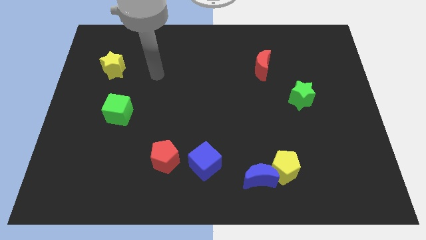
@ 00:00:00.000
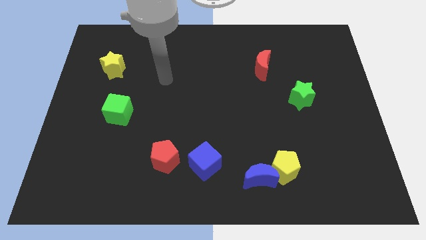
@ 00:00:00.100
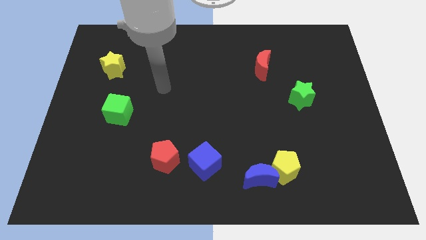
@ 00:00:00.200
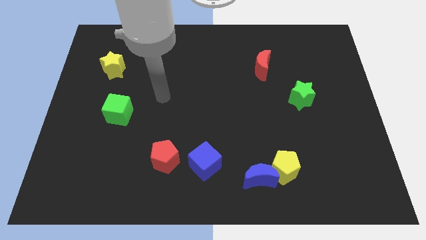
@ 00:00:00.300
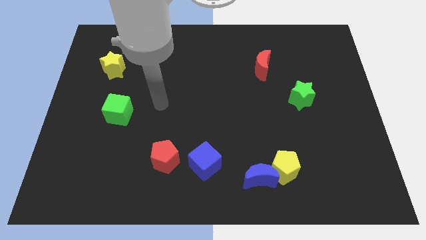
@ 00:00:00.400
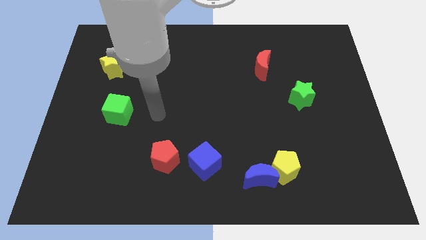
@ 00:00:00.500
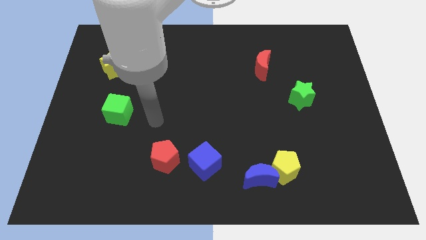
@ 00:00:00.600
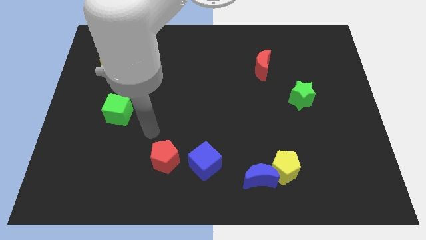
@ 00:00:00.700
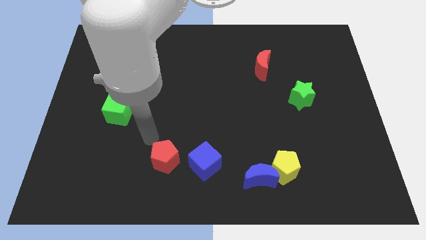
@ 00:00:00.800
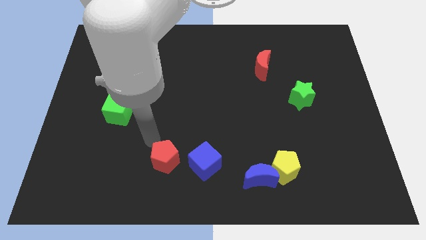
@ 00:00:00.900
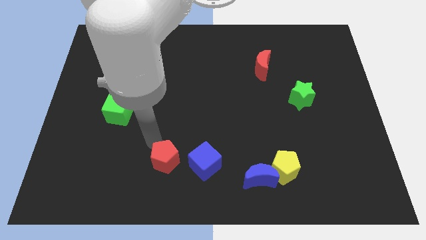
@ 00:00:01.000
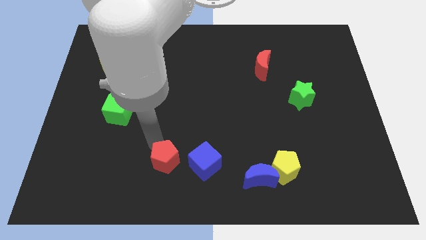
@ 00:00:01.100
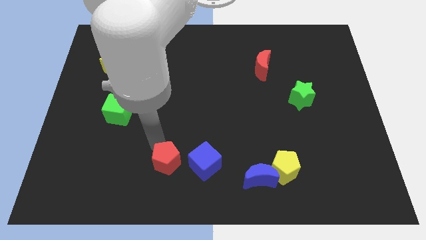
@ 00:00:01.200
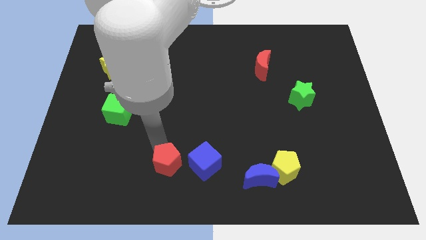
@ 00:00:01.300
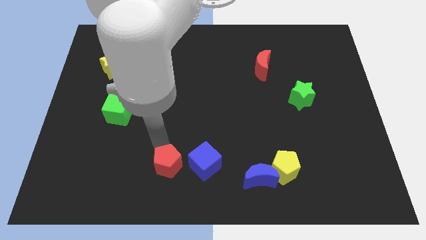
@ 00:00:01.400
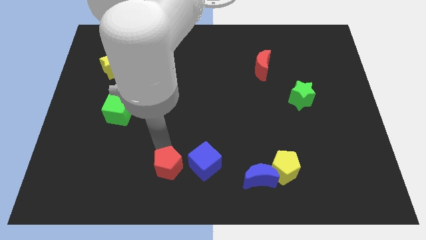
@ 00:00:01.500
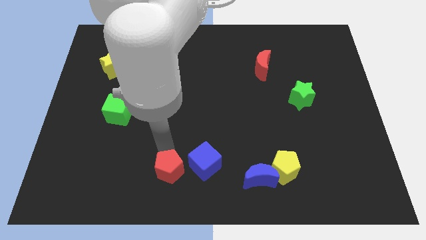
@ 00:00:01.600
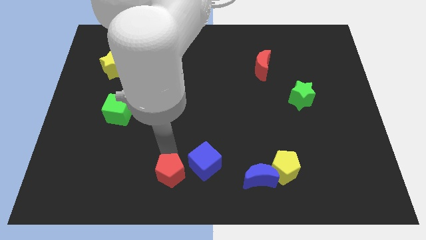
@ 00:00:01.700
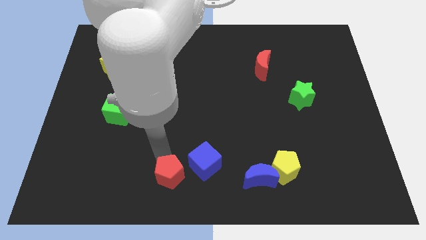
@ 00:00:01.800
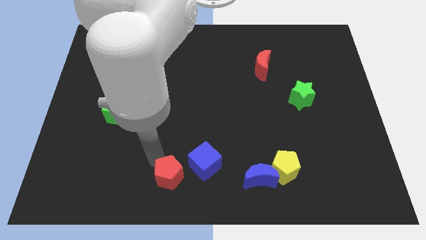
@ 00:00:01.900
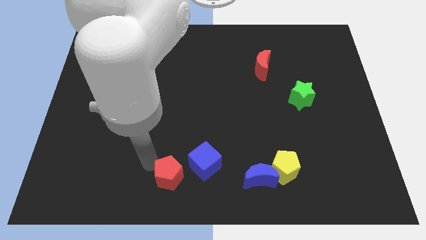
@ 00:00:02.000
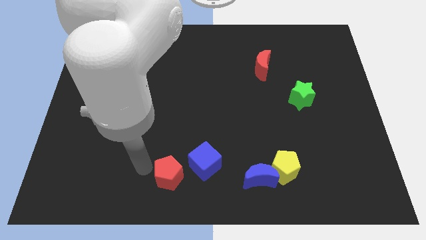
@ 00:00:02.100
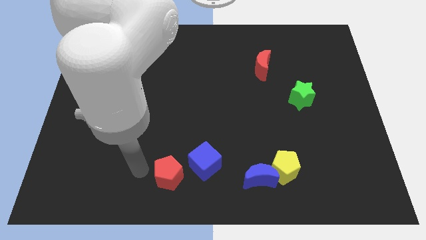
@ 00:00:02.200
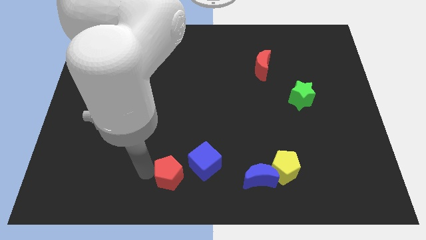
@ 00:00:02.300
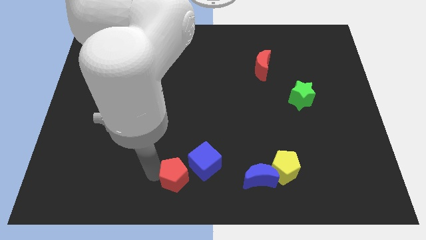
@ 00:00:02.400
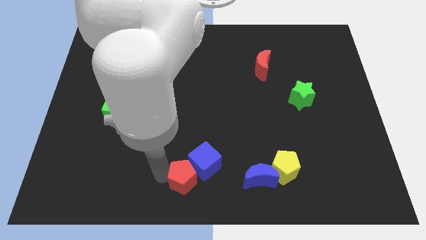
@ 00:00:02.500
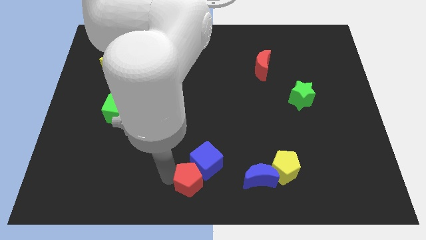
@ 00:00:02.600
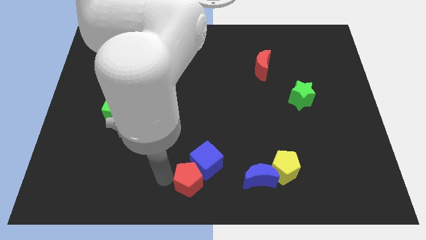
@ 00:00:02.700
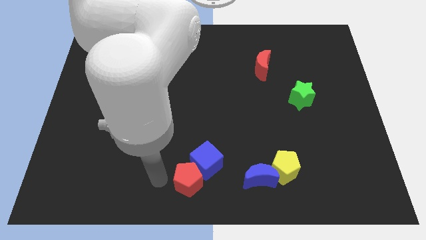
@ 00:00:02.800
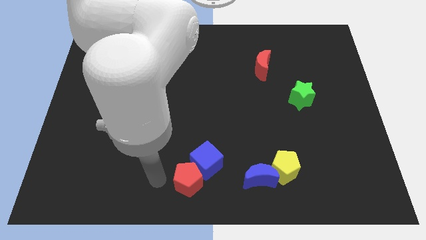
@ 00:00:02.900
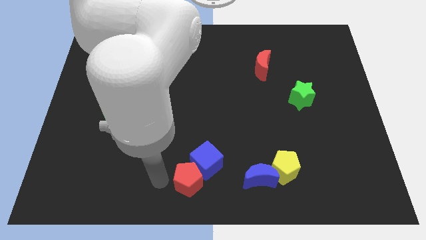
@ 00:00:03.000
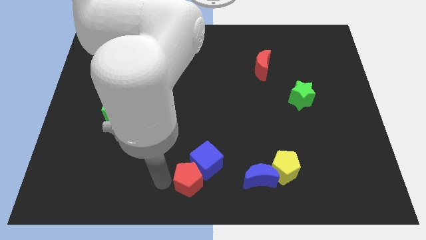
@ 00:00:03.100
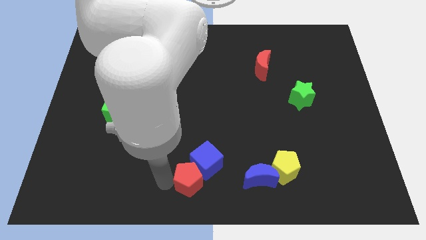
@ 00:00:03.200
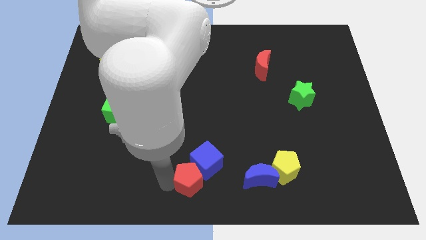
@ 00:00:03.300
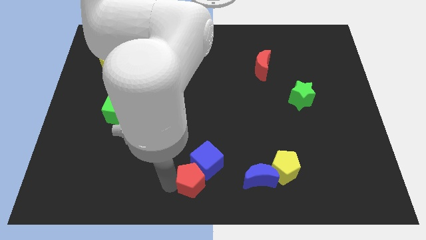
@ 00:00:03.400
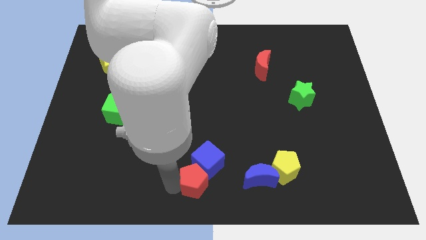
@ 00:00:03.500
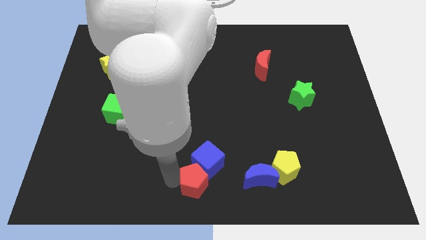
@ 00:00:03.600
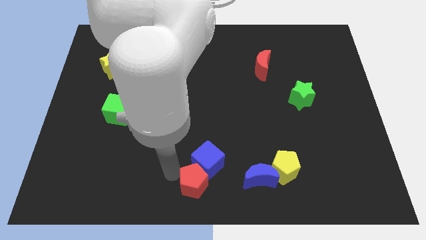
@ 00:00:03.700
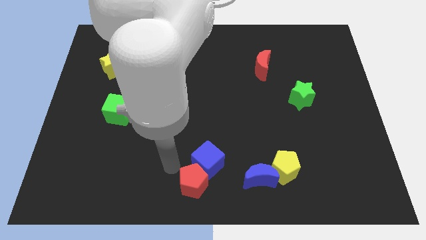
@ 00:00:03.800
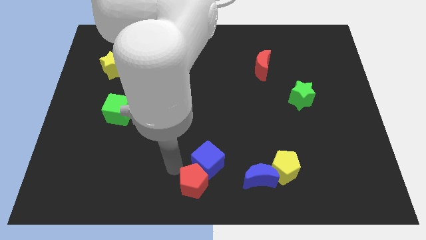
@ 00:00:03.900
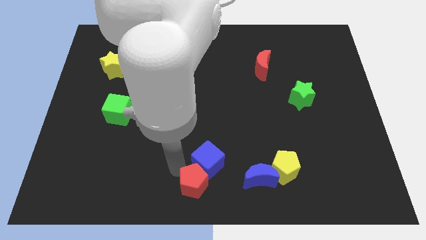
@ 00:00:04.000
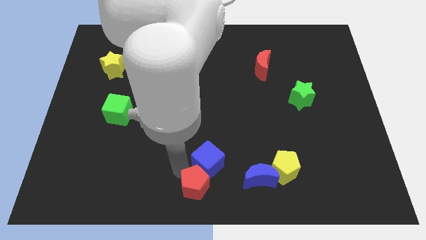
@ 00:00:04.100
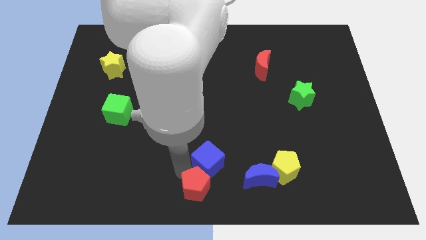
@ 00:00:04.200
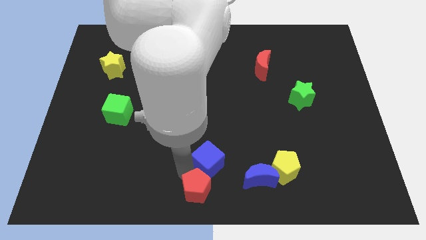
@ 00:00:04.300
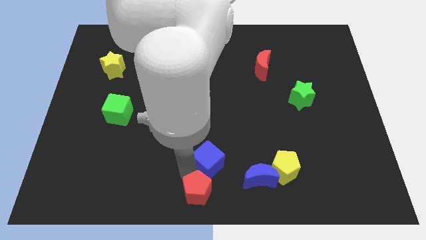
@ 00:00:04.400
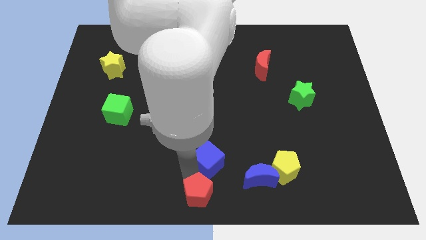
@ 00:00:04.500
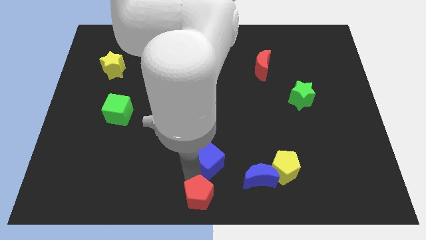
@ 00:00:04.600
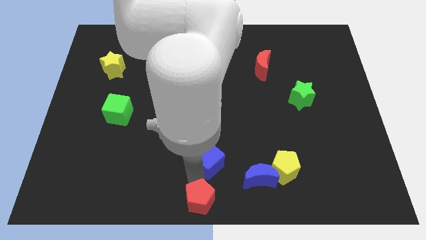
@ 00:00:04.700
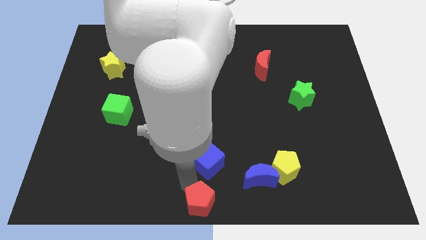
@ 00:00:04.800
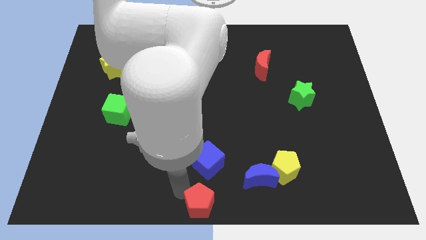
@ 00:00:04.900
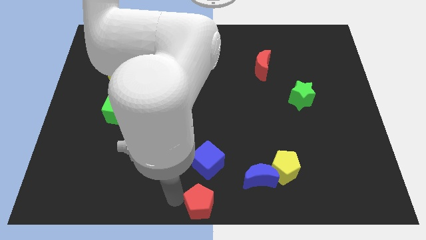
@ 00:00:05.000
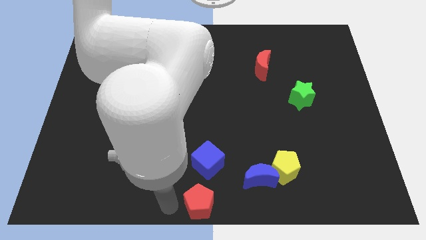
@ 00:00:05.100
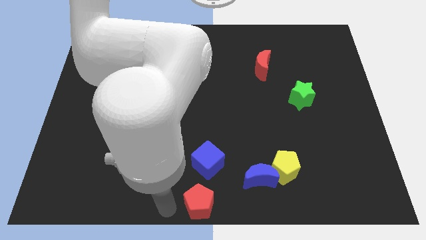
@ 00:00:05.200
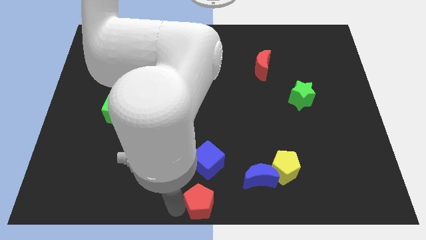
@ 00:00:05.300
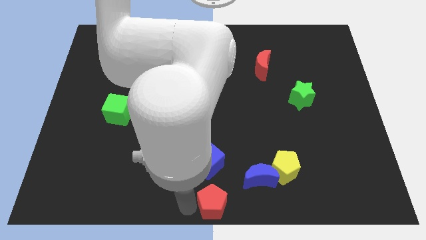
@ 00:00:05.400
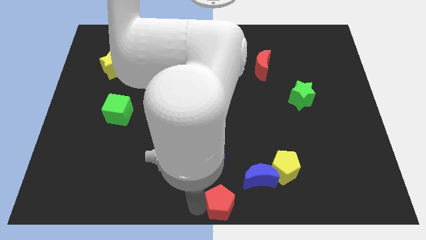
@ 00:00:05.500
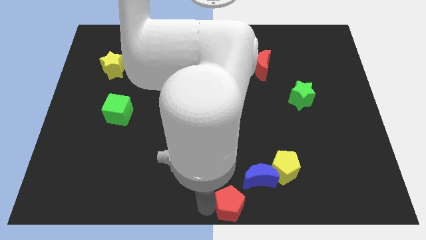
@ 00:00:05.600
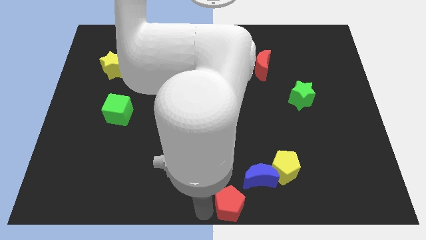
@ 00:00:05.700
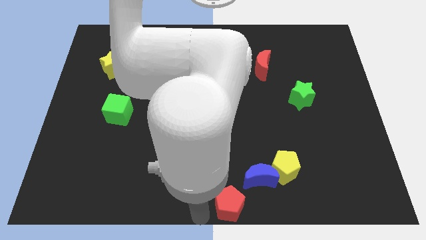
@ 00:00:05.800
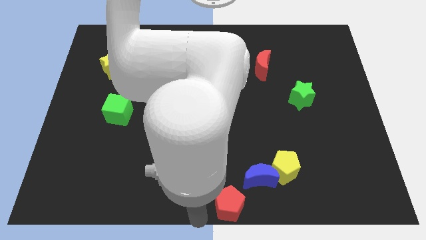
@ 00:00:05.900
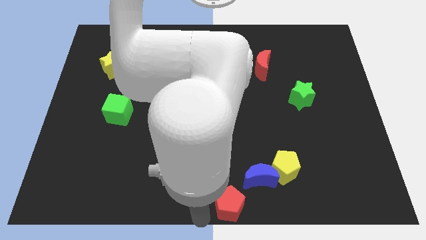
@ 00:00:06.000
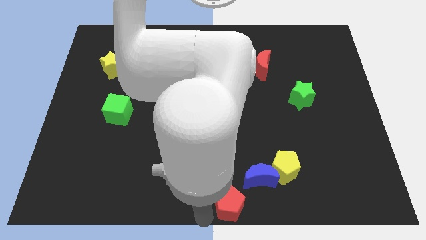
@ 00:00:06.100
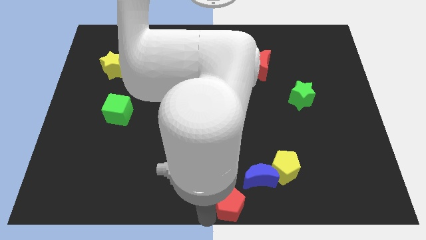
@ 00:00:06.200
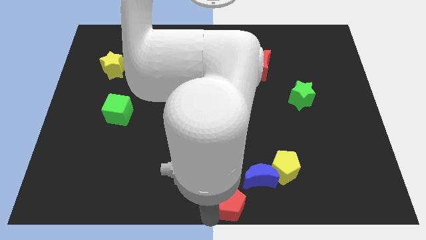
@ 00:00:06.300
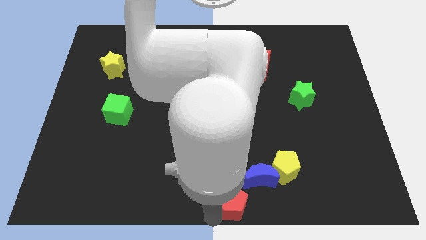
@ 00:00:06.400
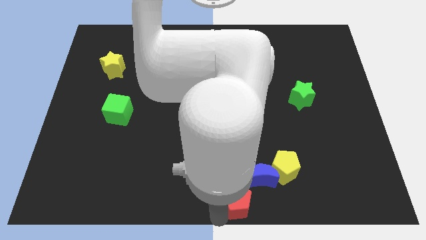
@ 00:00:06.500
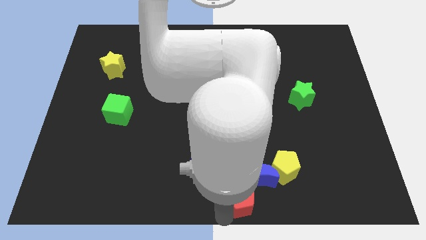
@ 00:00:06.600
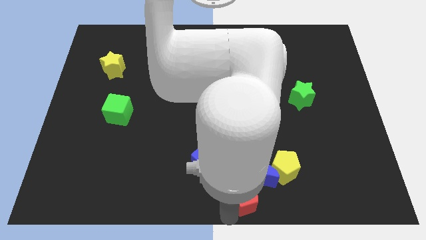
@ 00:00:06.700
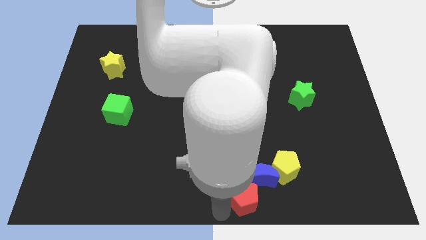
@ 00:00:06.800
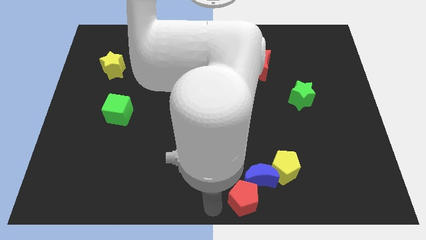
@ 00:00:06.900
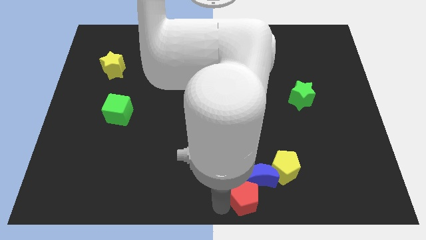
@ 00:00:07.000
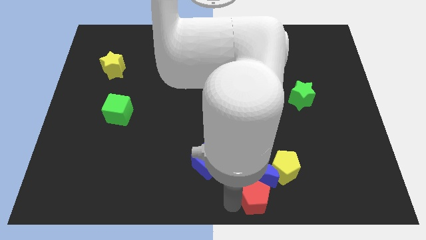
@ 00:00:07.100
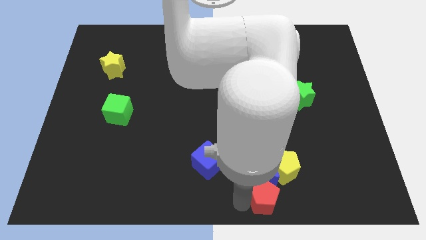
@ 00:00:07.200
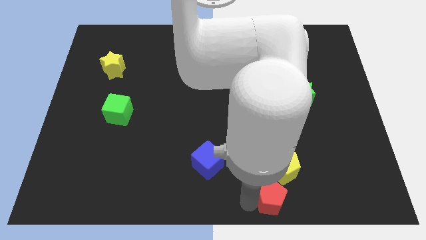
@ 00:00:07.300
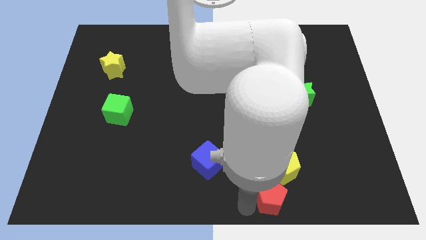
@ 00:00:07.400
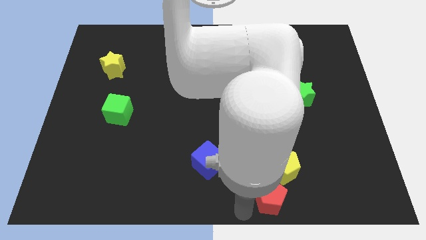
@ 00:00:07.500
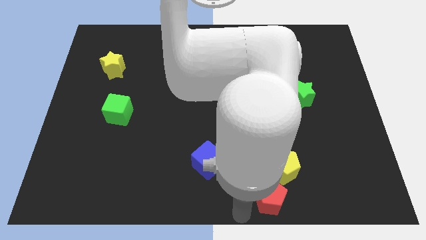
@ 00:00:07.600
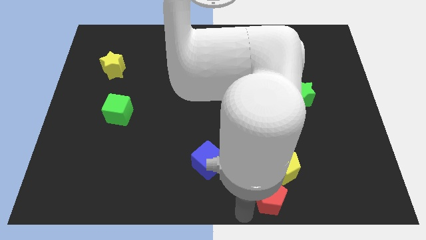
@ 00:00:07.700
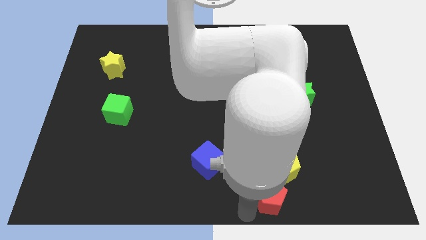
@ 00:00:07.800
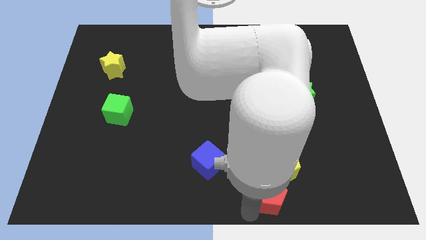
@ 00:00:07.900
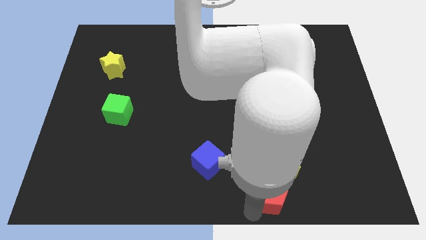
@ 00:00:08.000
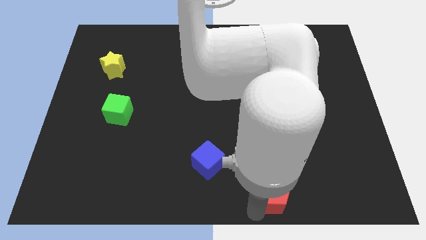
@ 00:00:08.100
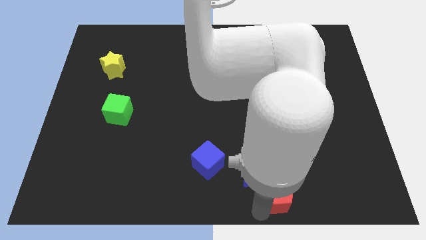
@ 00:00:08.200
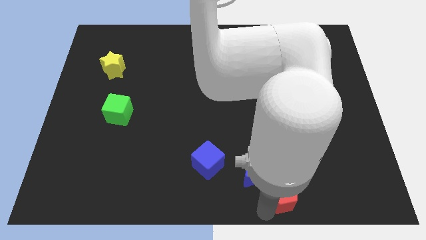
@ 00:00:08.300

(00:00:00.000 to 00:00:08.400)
slide the red pentagon to the right of the blue moon
